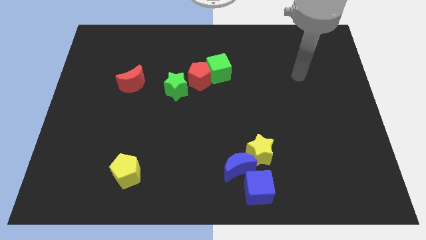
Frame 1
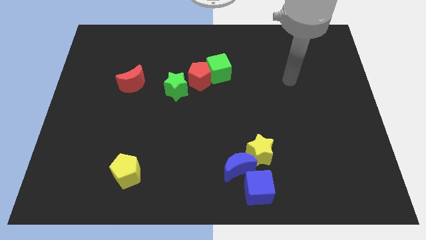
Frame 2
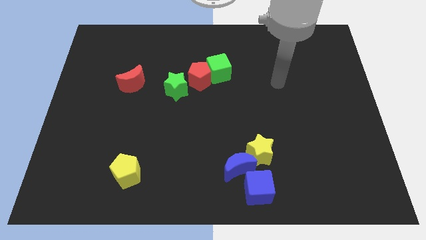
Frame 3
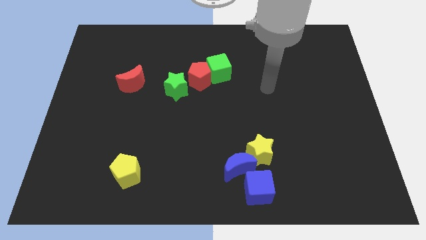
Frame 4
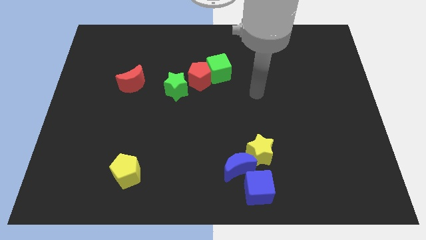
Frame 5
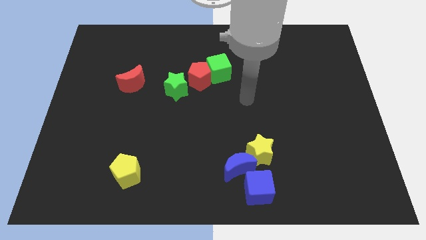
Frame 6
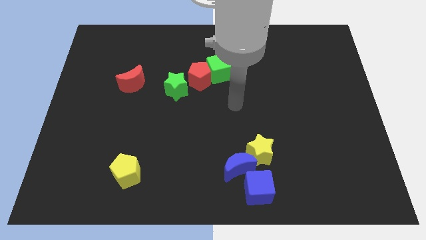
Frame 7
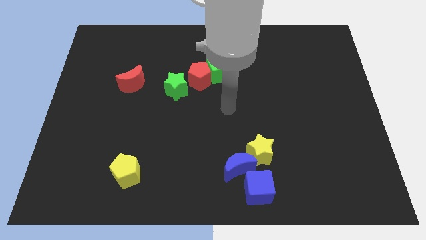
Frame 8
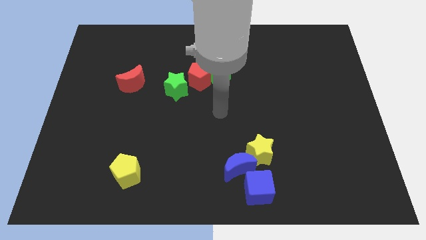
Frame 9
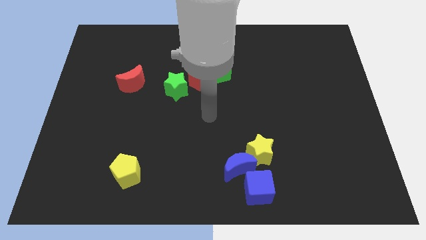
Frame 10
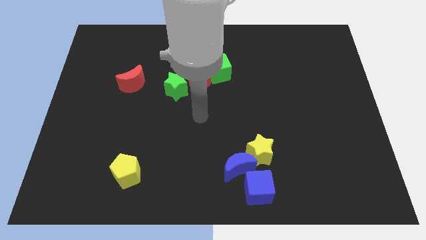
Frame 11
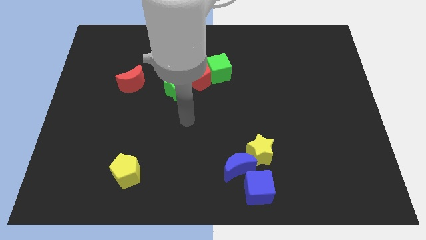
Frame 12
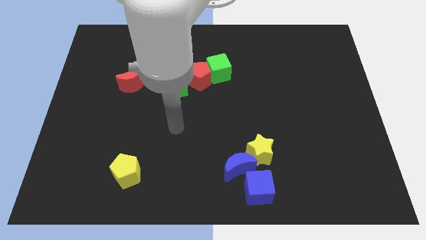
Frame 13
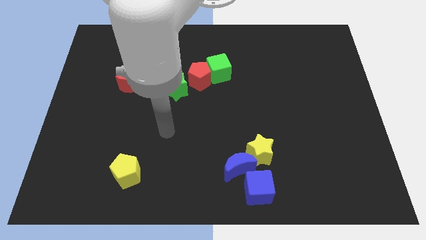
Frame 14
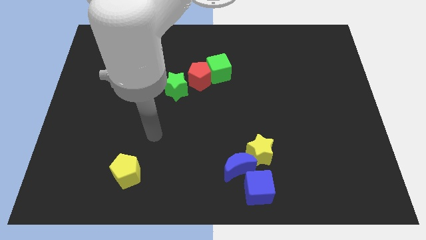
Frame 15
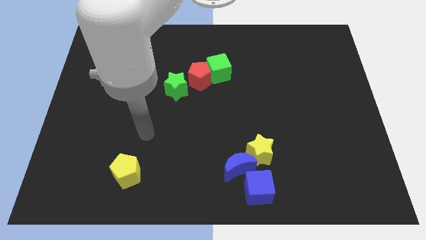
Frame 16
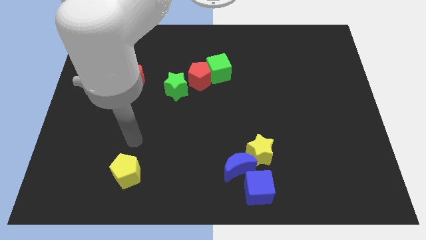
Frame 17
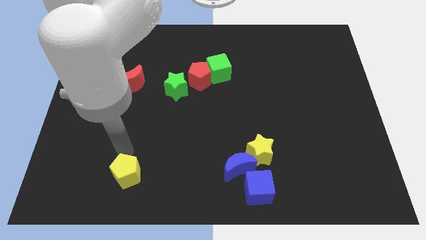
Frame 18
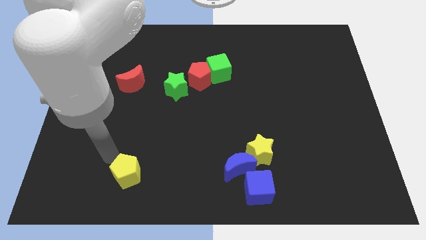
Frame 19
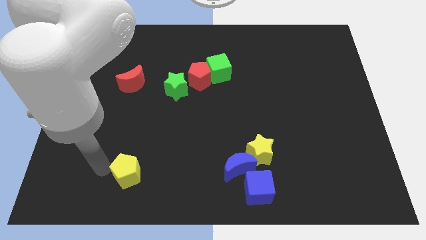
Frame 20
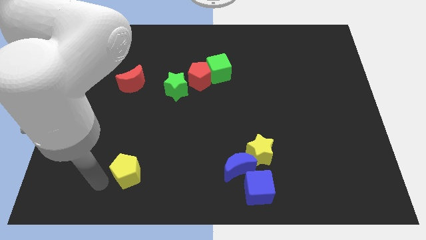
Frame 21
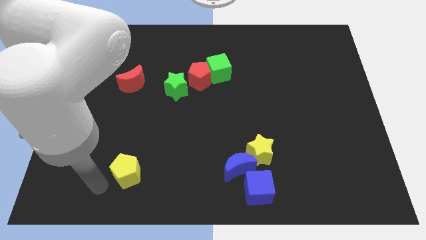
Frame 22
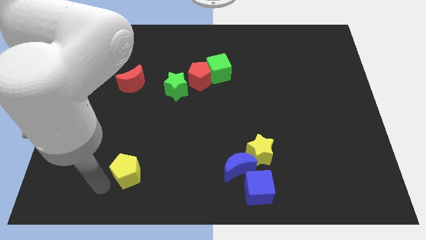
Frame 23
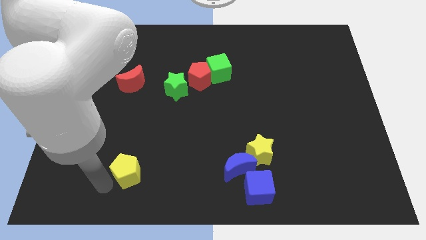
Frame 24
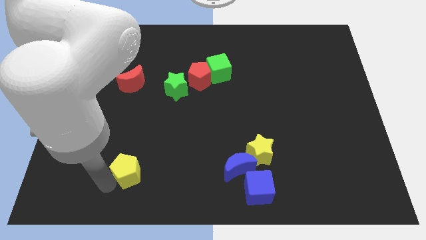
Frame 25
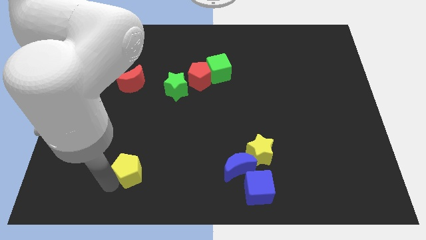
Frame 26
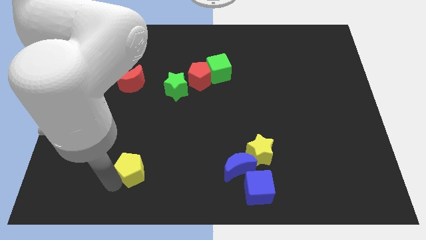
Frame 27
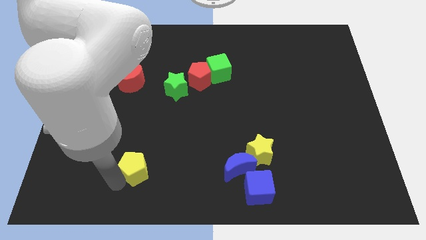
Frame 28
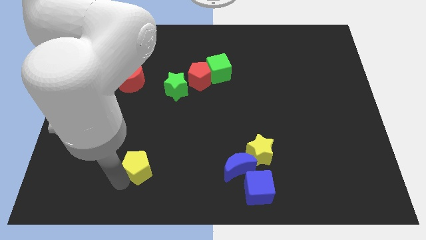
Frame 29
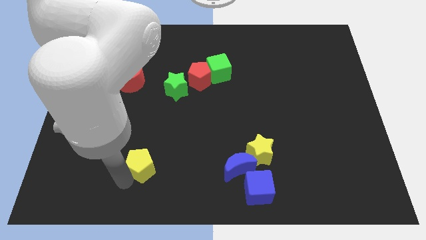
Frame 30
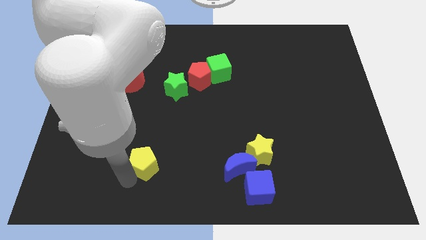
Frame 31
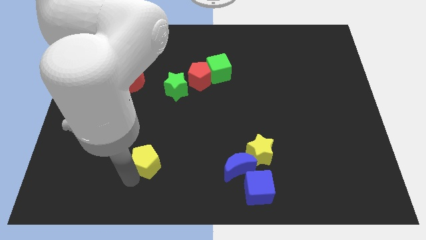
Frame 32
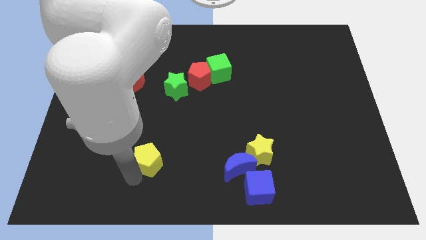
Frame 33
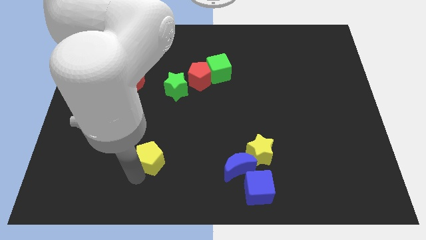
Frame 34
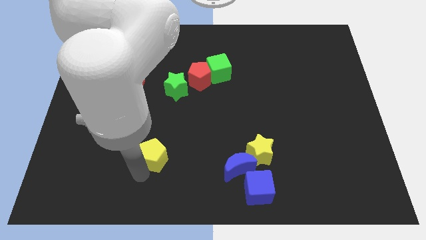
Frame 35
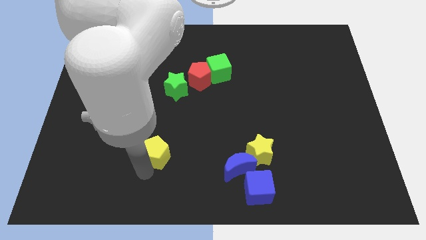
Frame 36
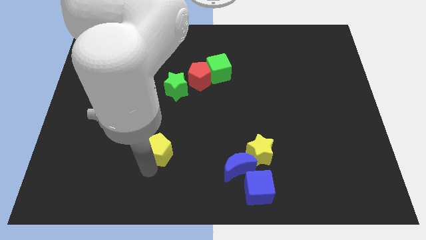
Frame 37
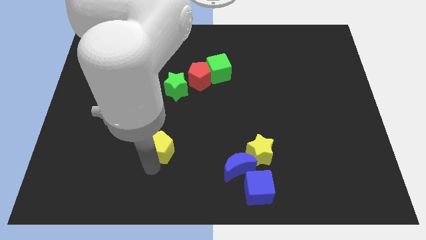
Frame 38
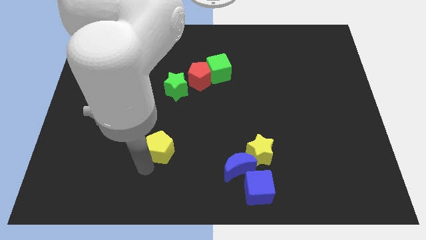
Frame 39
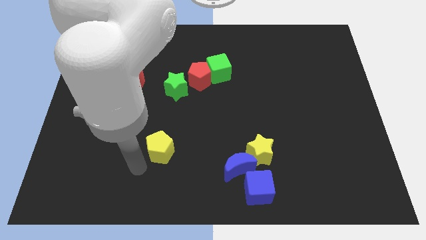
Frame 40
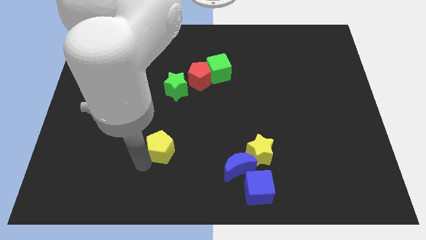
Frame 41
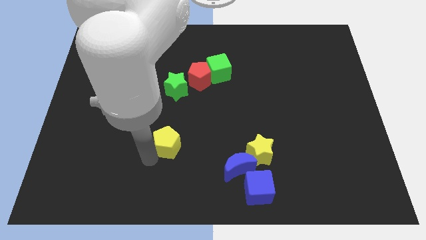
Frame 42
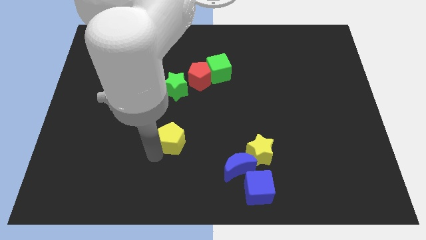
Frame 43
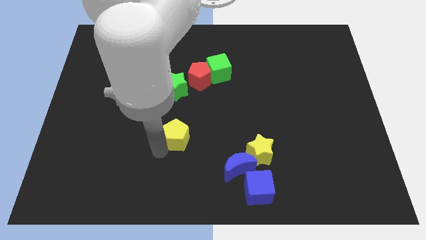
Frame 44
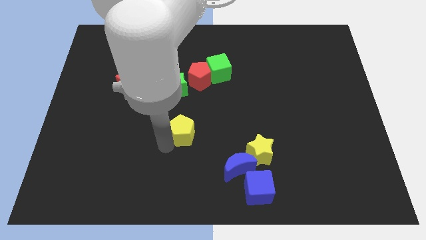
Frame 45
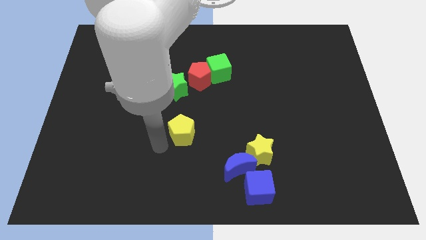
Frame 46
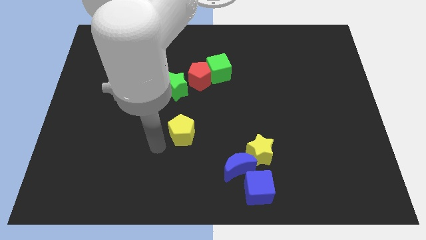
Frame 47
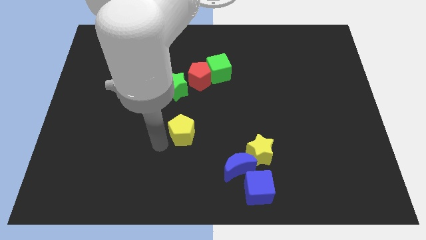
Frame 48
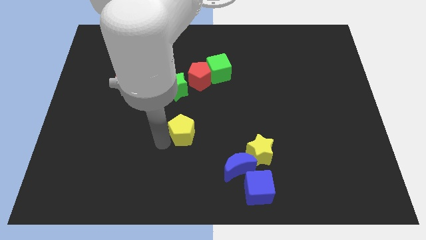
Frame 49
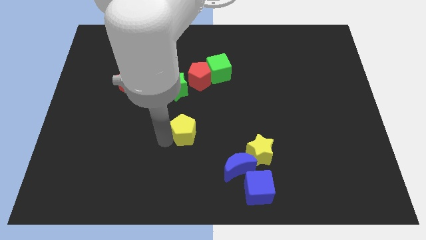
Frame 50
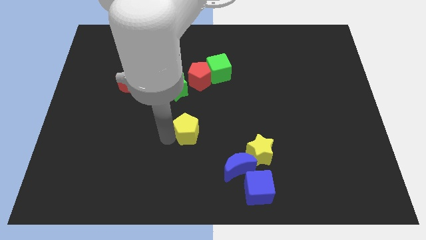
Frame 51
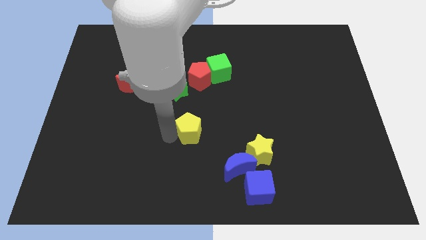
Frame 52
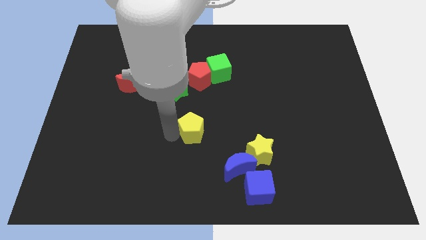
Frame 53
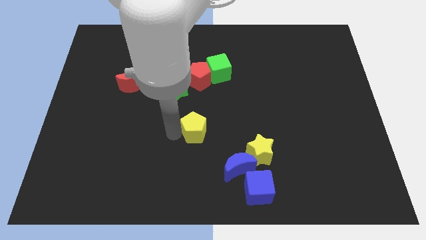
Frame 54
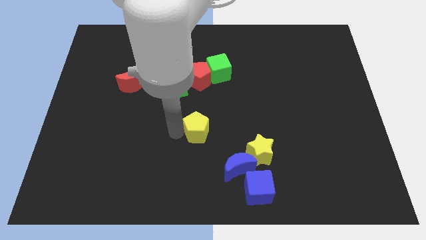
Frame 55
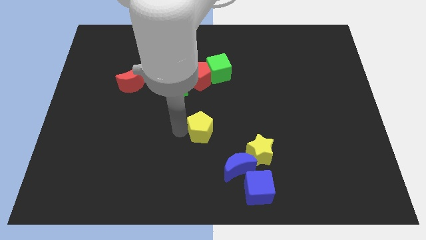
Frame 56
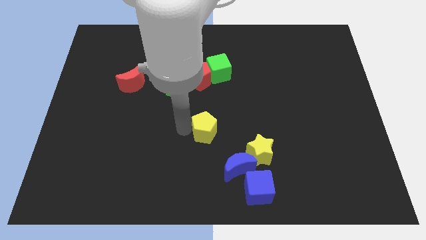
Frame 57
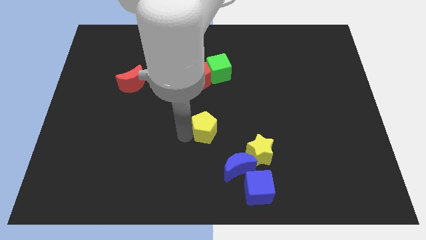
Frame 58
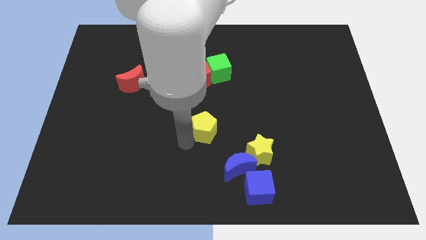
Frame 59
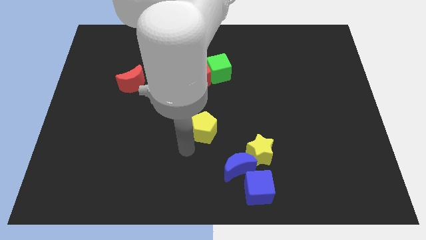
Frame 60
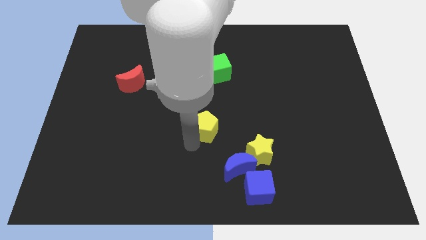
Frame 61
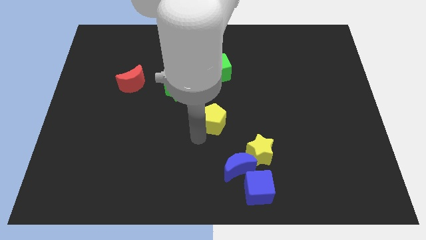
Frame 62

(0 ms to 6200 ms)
slide the yellow pentagon up and then to the right

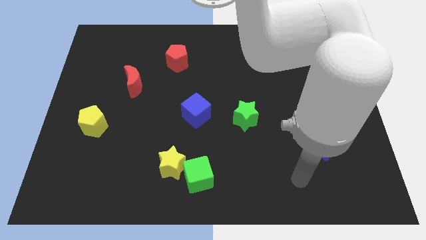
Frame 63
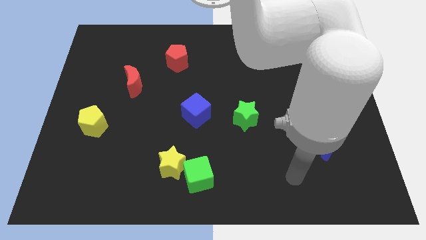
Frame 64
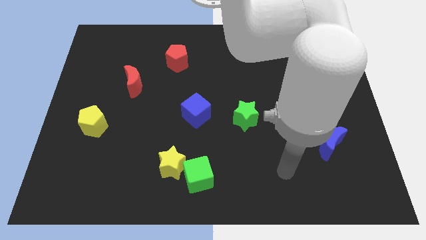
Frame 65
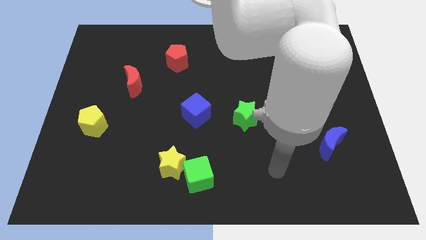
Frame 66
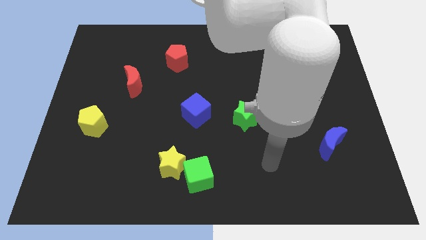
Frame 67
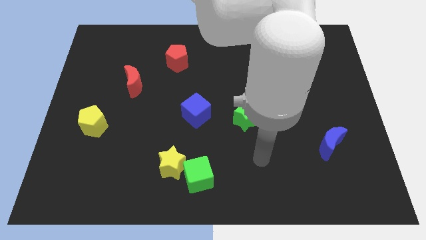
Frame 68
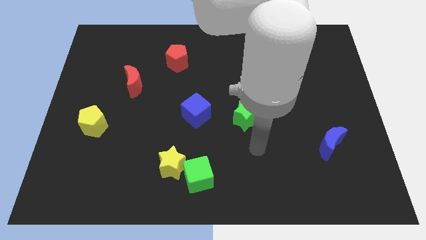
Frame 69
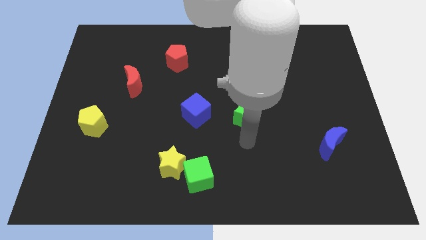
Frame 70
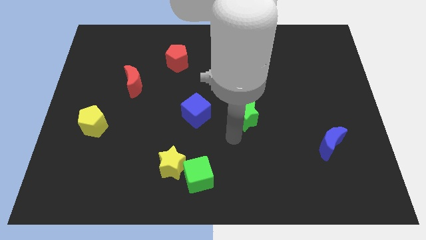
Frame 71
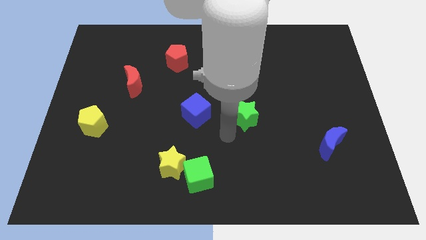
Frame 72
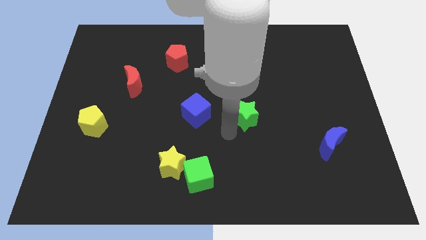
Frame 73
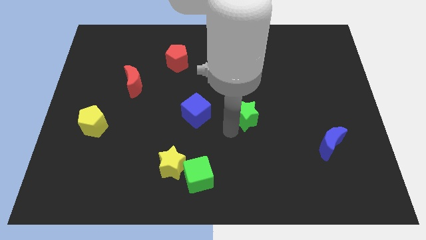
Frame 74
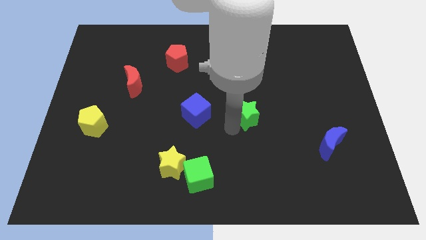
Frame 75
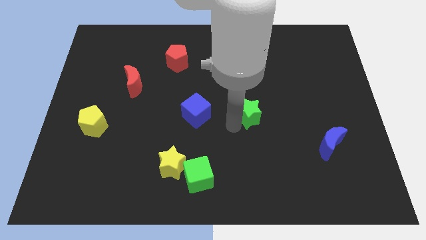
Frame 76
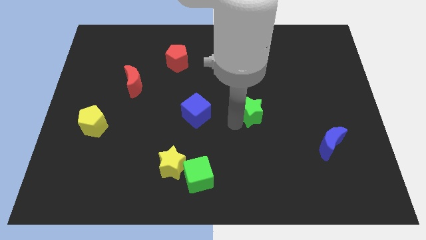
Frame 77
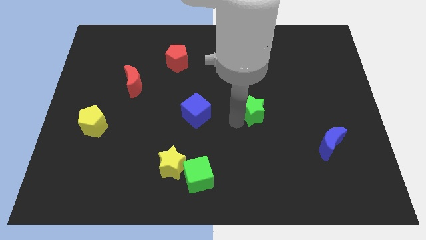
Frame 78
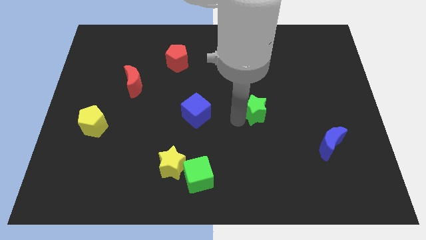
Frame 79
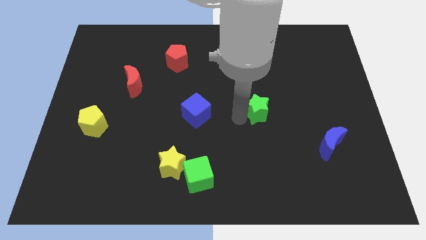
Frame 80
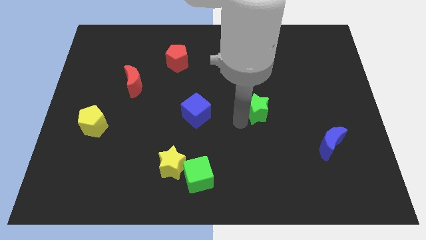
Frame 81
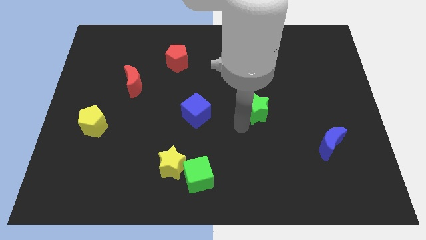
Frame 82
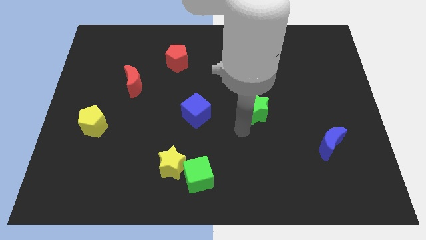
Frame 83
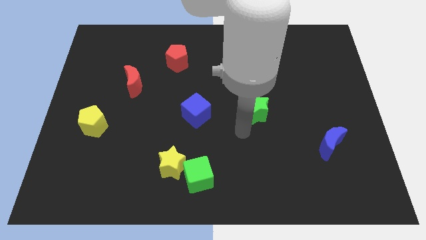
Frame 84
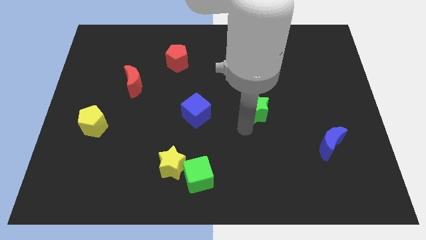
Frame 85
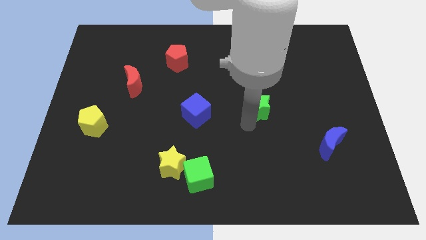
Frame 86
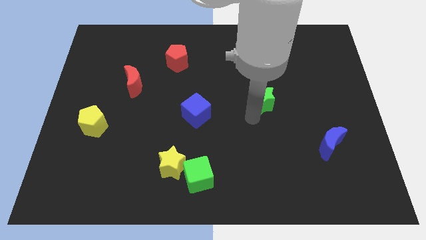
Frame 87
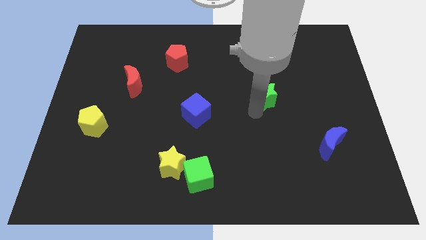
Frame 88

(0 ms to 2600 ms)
slightly move the green star up and right
